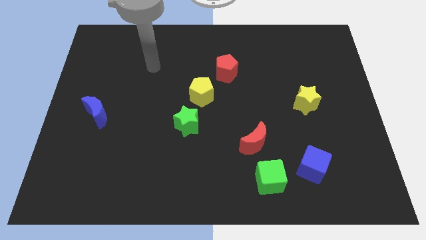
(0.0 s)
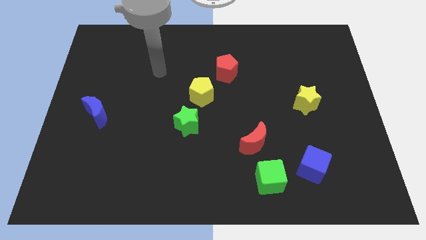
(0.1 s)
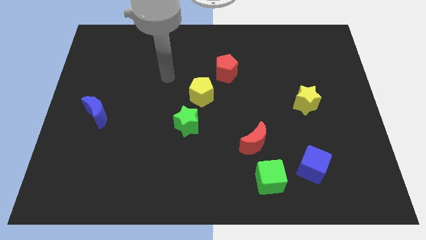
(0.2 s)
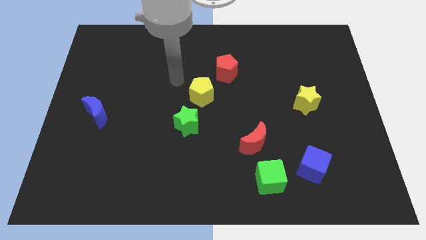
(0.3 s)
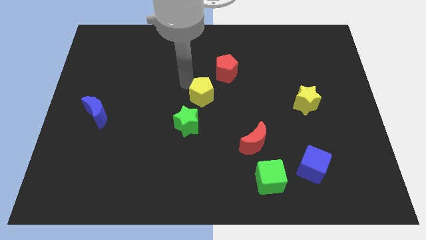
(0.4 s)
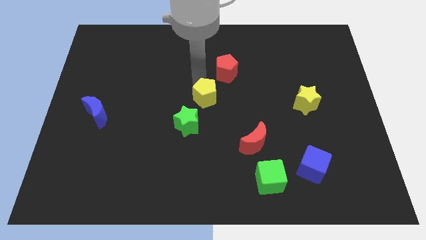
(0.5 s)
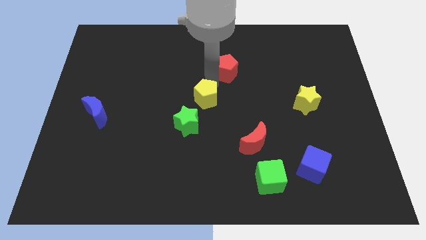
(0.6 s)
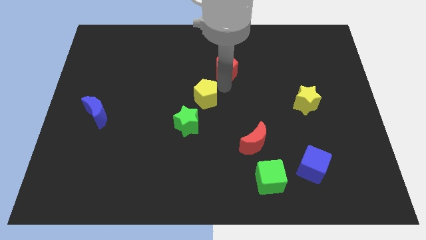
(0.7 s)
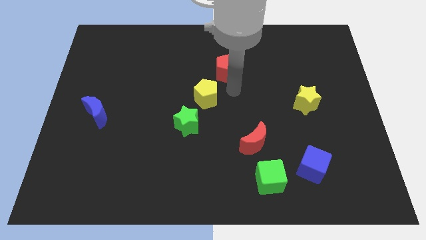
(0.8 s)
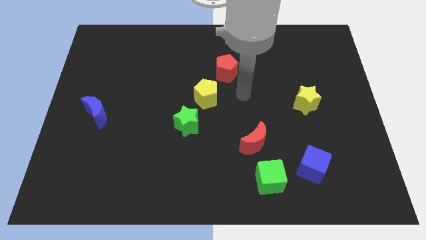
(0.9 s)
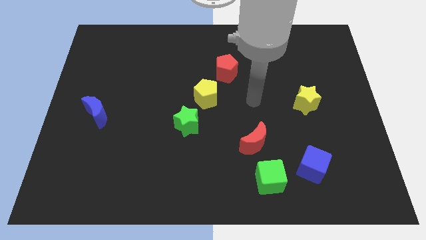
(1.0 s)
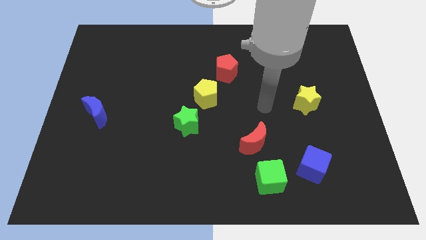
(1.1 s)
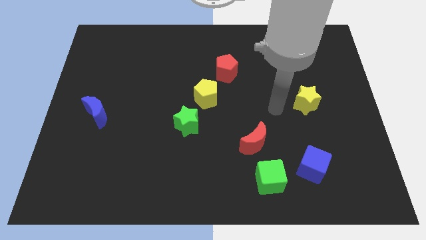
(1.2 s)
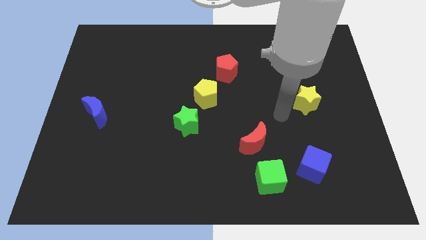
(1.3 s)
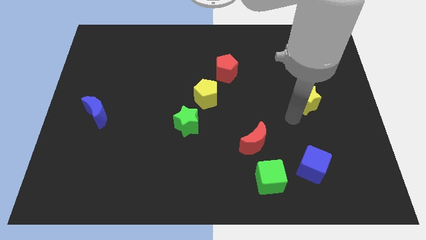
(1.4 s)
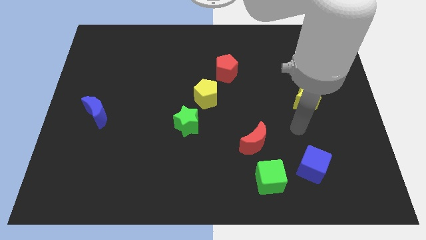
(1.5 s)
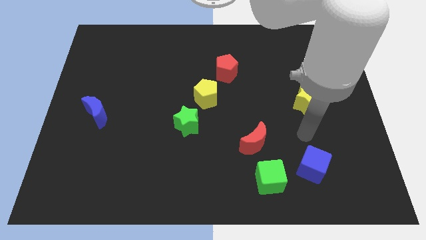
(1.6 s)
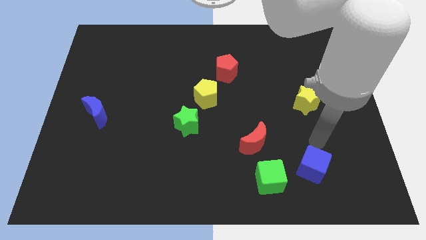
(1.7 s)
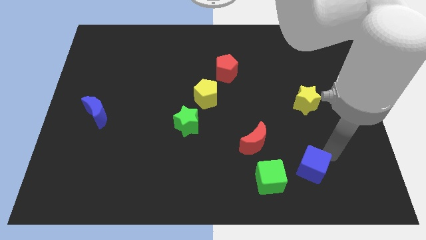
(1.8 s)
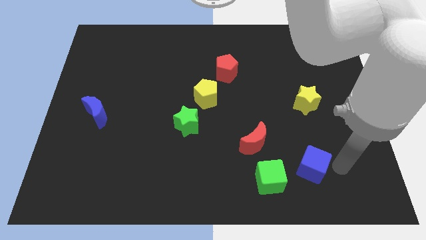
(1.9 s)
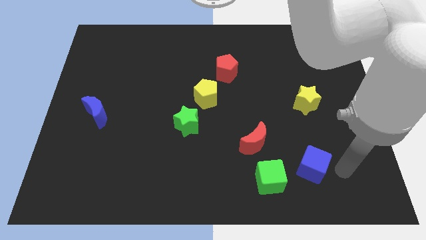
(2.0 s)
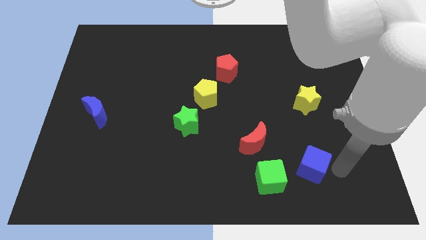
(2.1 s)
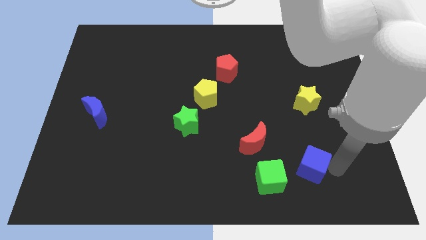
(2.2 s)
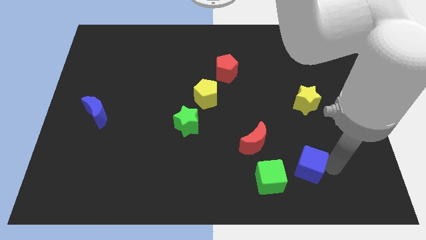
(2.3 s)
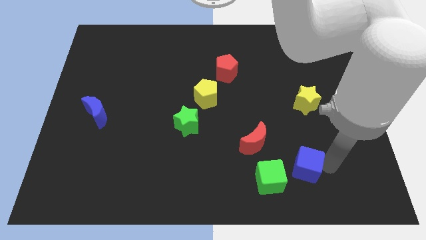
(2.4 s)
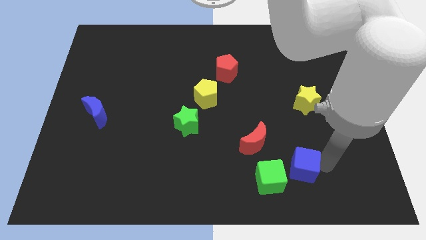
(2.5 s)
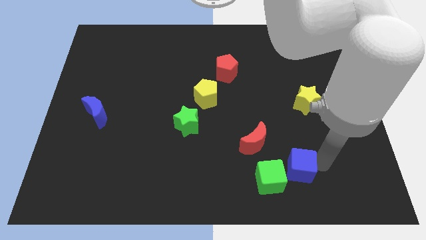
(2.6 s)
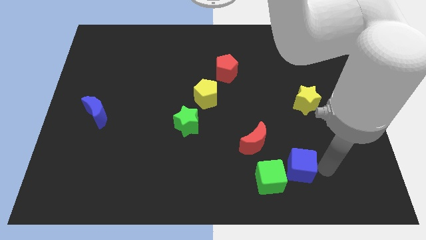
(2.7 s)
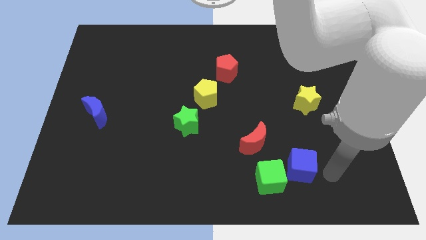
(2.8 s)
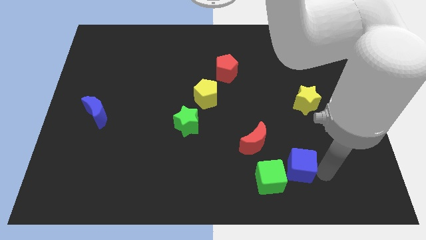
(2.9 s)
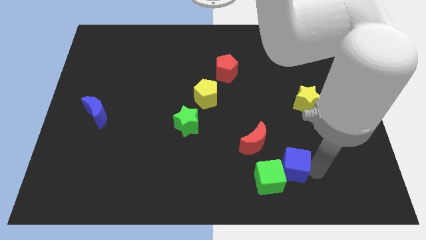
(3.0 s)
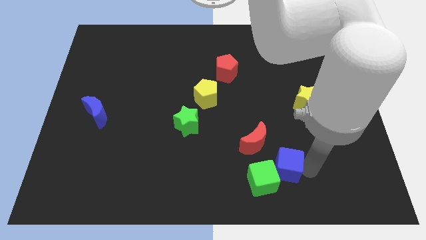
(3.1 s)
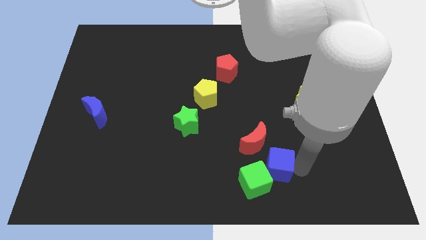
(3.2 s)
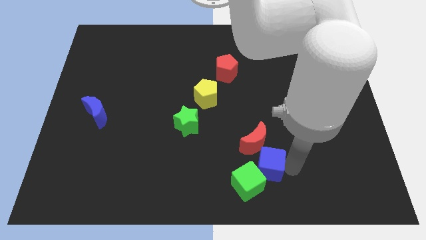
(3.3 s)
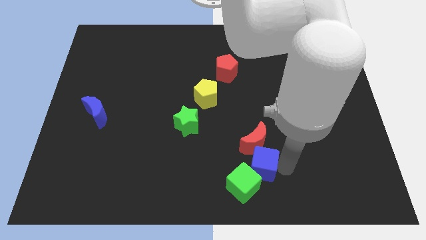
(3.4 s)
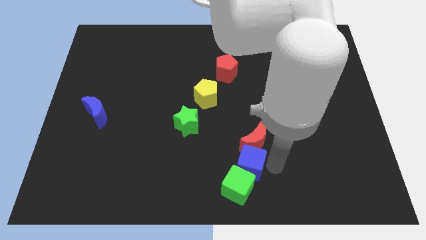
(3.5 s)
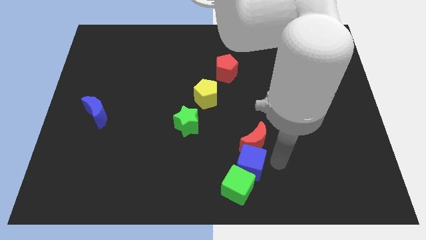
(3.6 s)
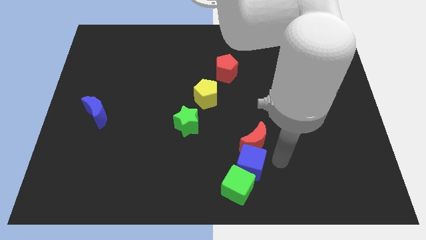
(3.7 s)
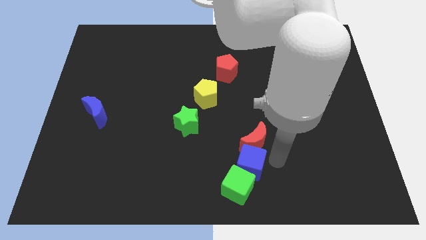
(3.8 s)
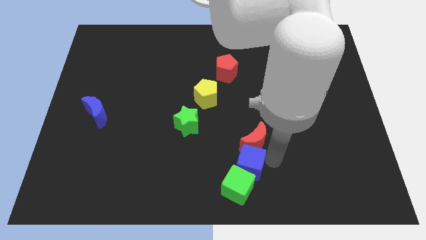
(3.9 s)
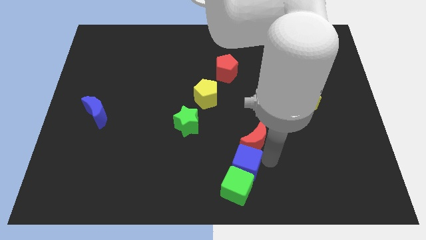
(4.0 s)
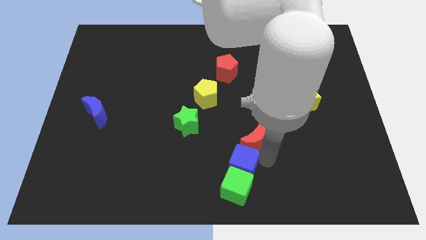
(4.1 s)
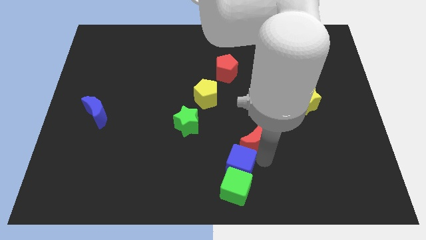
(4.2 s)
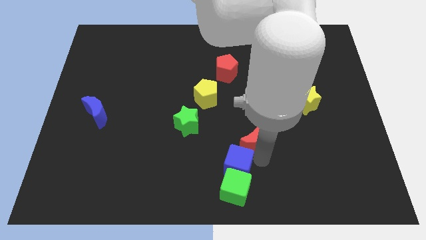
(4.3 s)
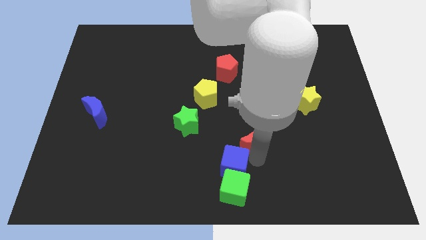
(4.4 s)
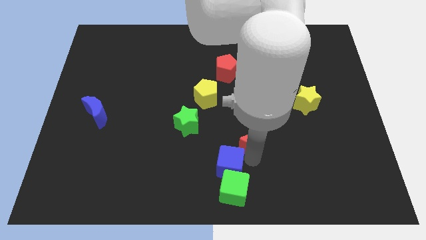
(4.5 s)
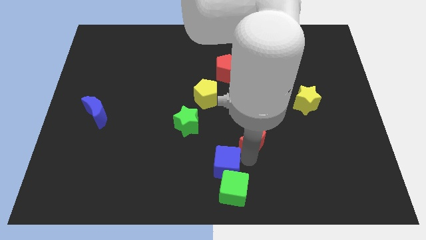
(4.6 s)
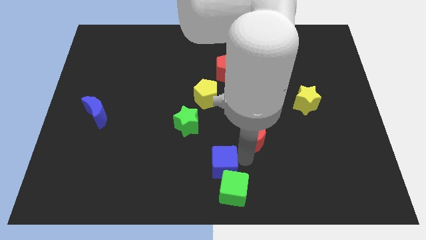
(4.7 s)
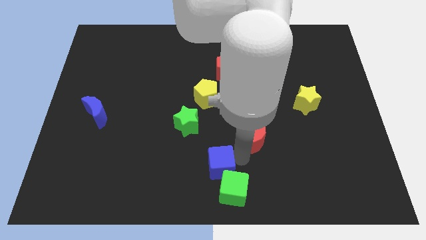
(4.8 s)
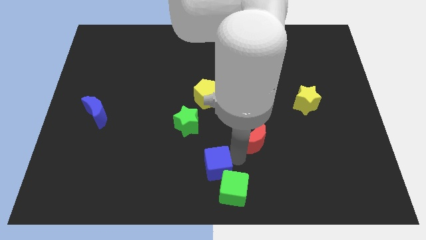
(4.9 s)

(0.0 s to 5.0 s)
push the blue cube left

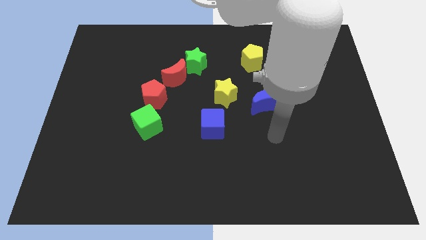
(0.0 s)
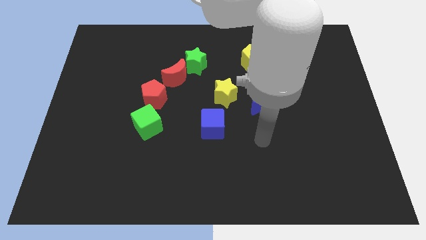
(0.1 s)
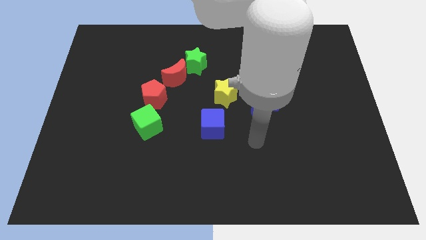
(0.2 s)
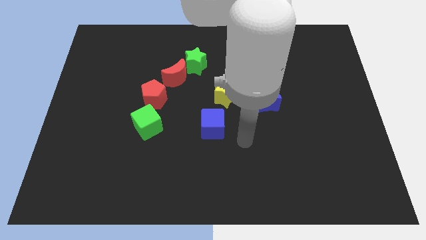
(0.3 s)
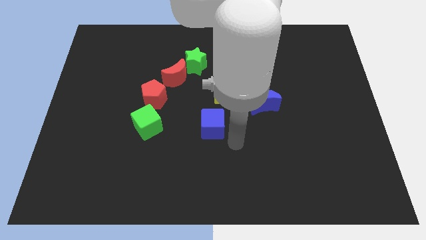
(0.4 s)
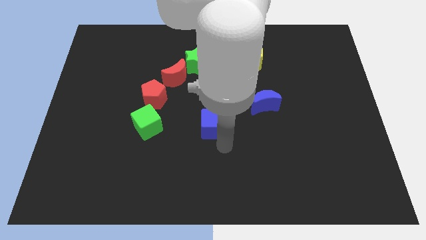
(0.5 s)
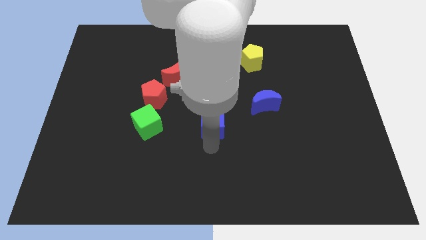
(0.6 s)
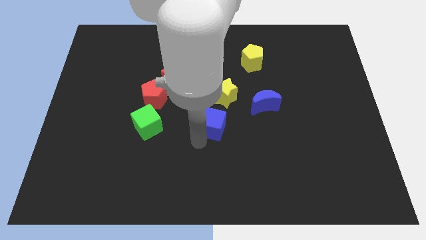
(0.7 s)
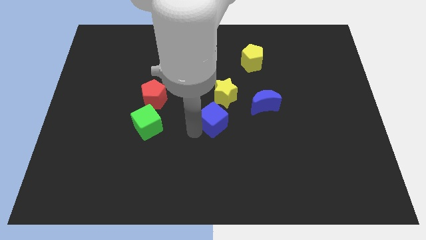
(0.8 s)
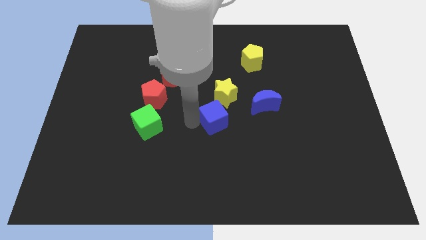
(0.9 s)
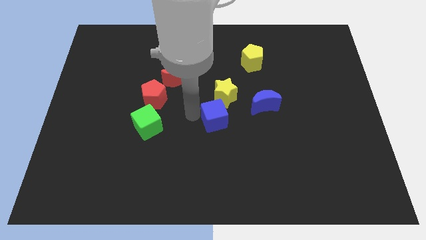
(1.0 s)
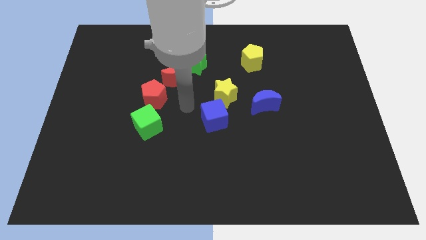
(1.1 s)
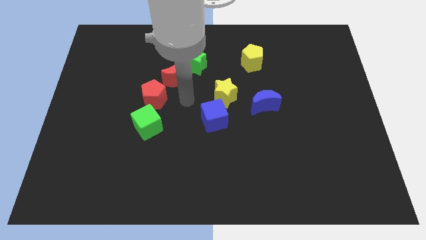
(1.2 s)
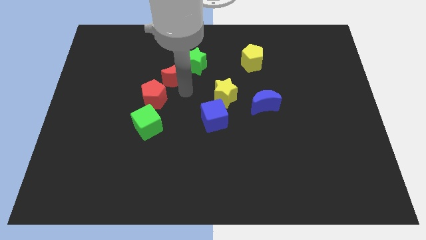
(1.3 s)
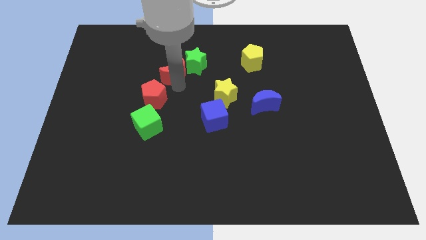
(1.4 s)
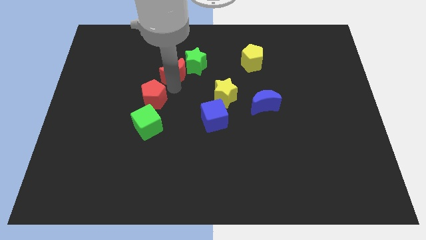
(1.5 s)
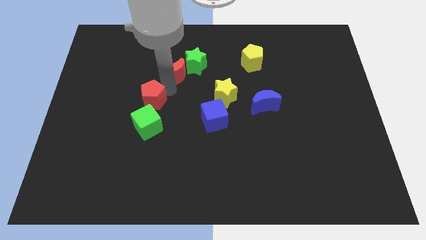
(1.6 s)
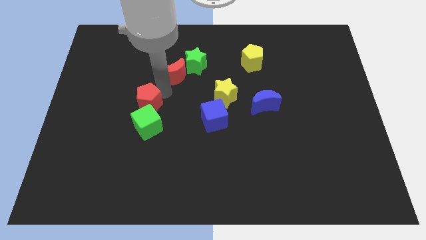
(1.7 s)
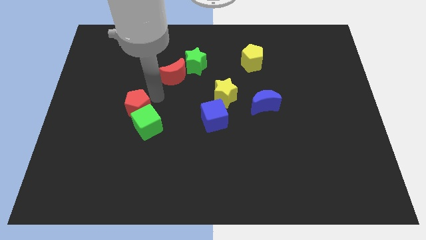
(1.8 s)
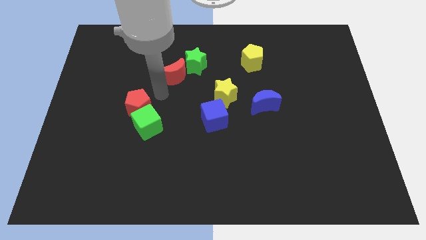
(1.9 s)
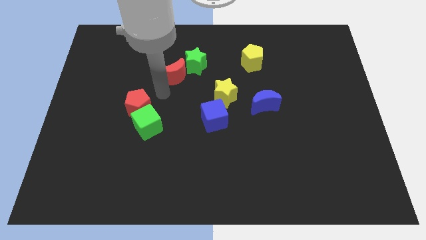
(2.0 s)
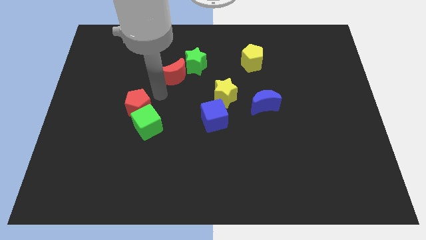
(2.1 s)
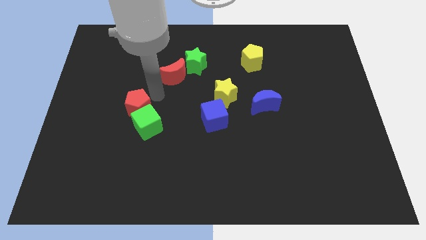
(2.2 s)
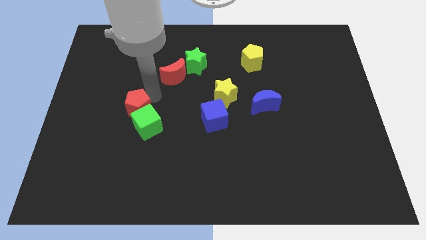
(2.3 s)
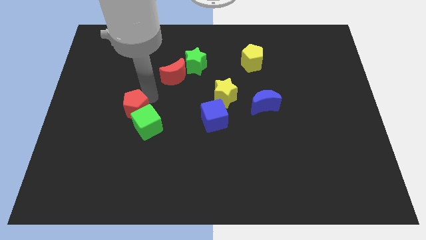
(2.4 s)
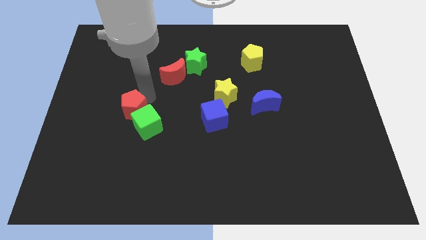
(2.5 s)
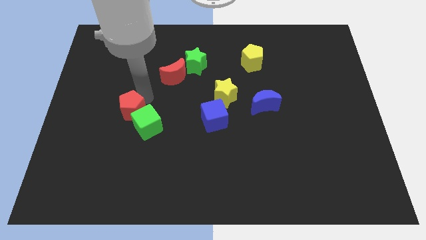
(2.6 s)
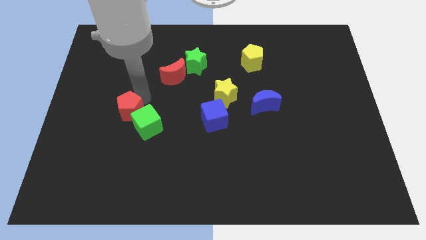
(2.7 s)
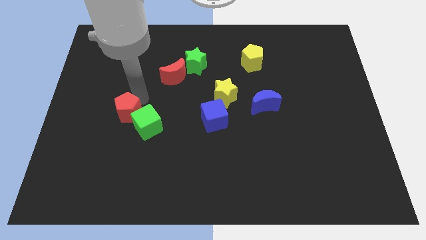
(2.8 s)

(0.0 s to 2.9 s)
slightly move the red pentagon diagonally downwards and left

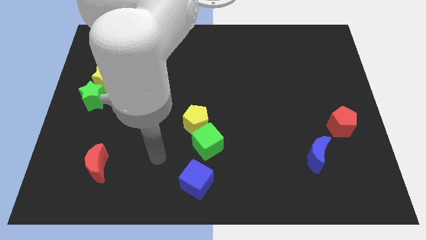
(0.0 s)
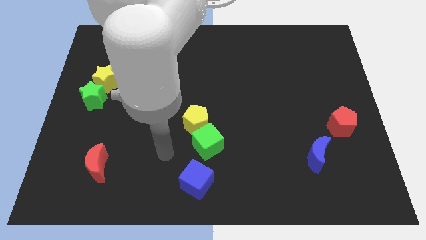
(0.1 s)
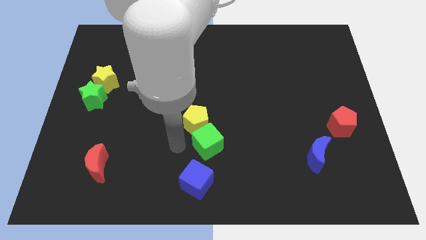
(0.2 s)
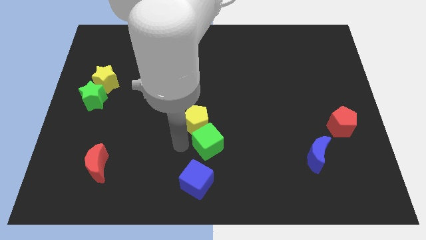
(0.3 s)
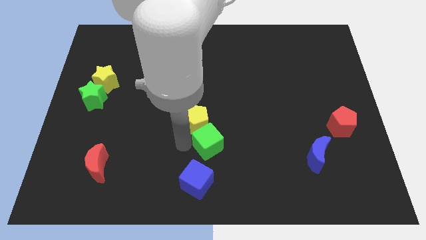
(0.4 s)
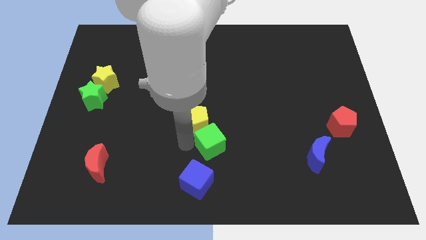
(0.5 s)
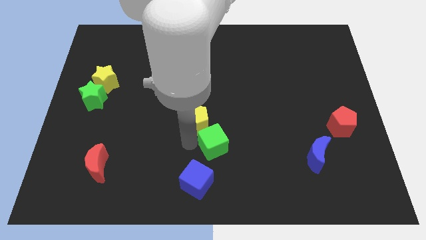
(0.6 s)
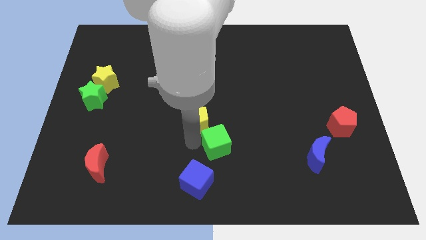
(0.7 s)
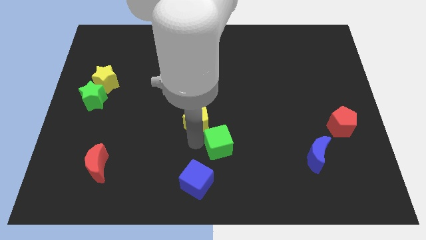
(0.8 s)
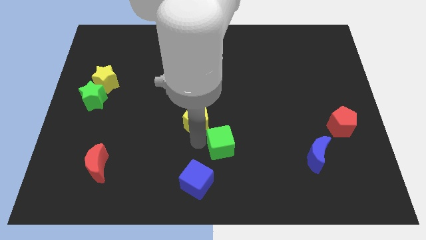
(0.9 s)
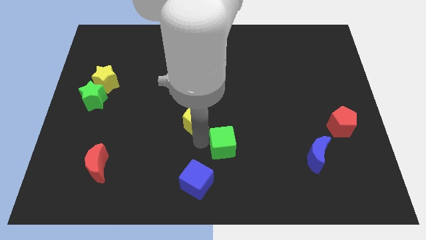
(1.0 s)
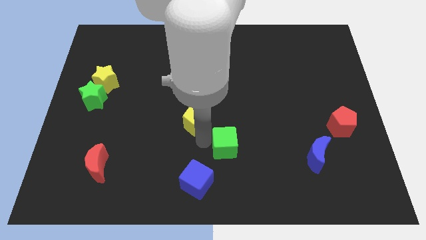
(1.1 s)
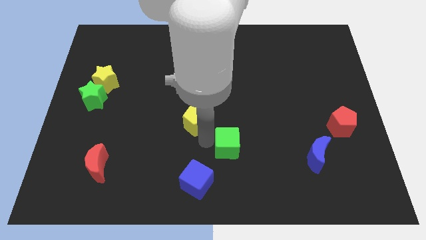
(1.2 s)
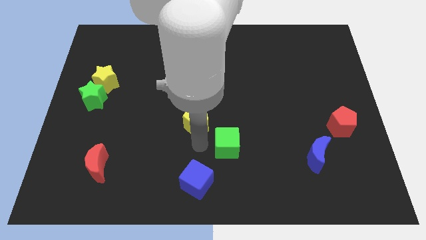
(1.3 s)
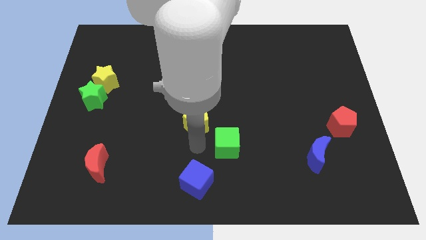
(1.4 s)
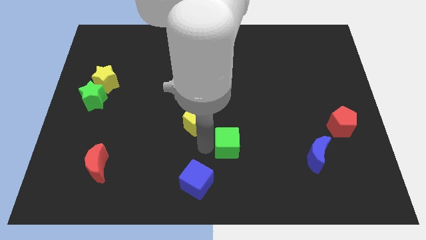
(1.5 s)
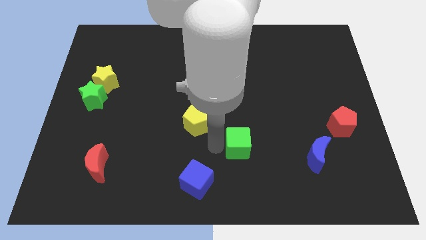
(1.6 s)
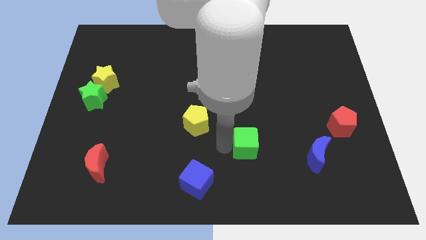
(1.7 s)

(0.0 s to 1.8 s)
slide the green cube a little bit right
